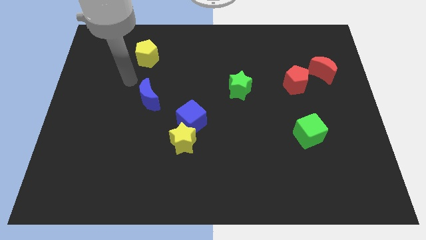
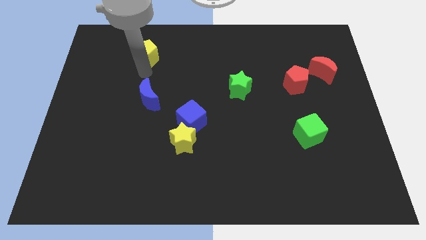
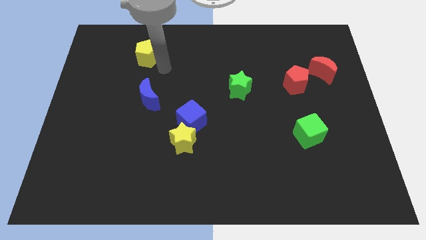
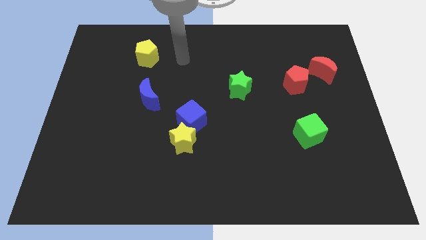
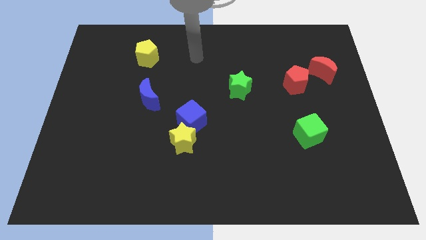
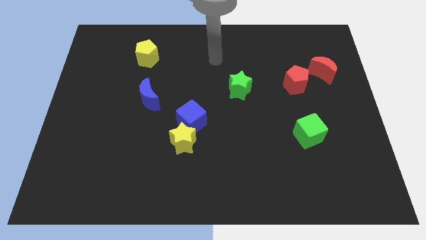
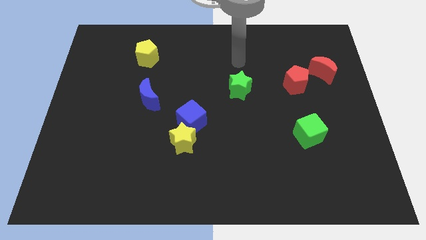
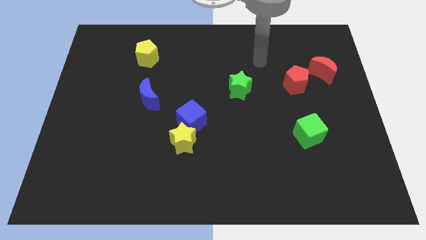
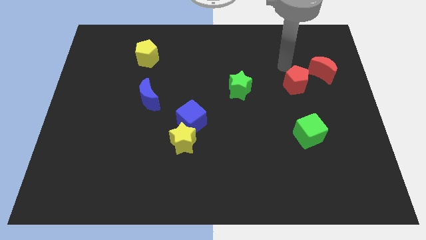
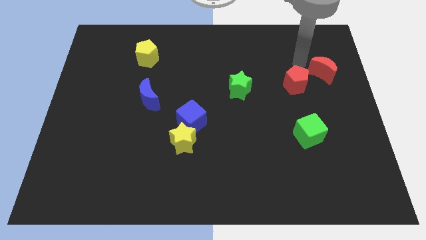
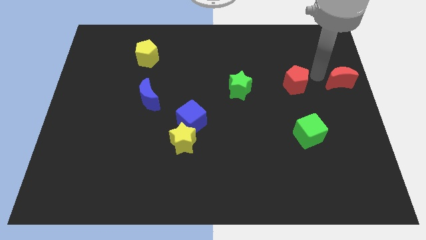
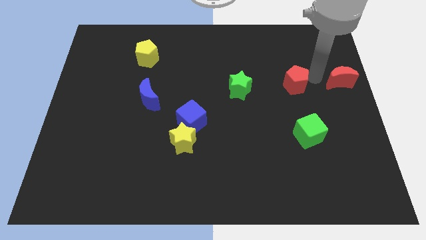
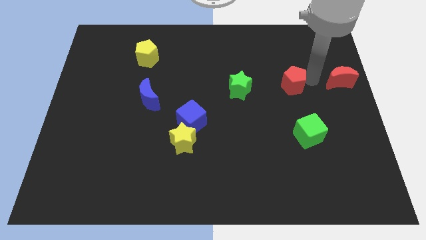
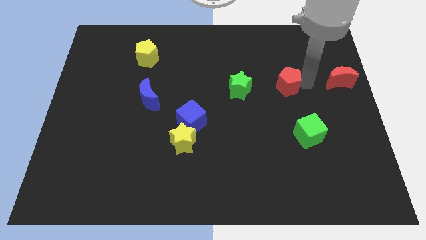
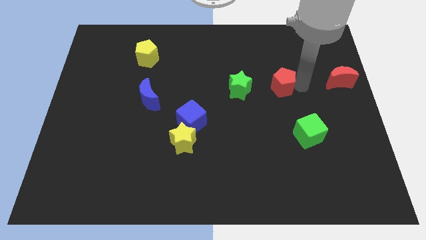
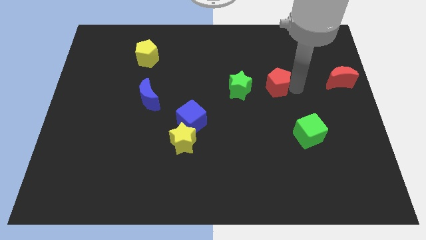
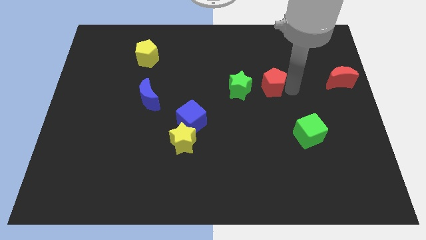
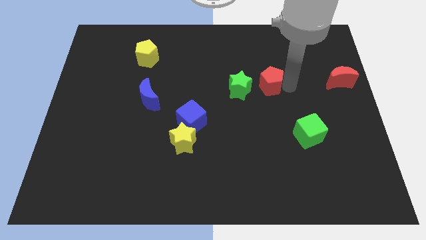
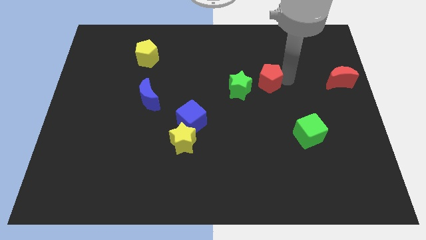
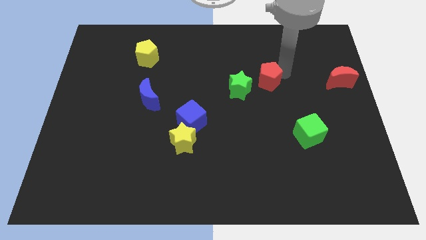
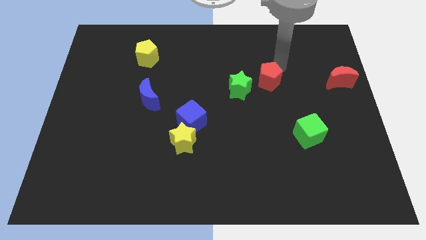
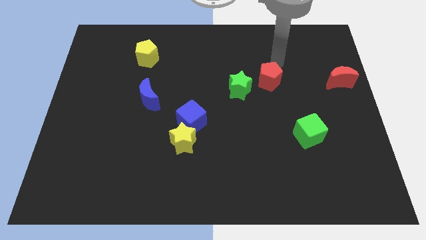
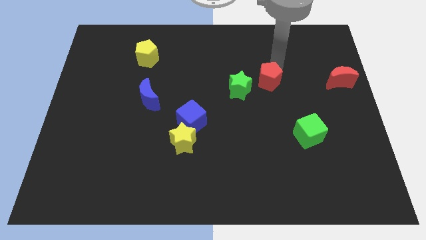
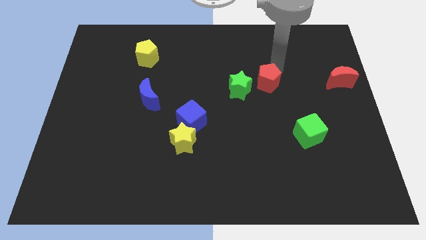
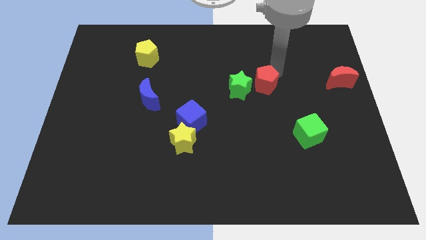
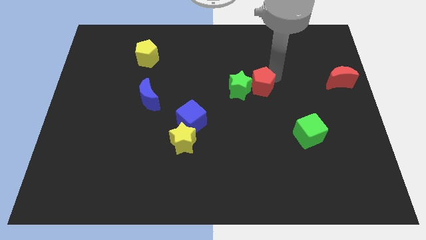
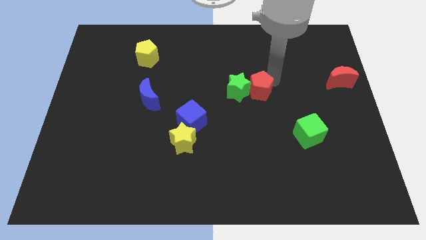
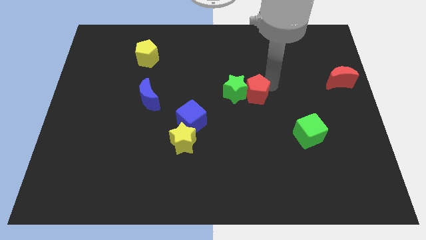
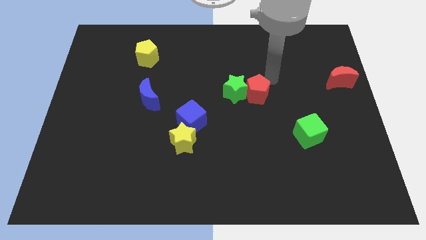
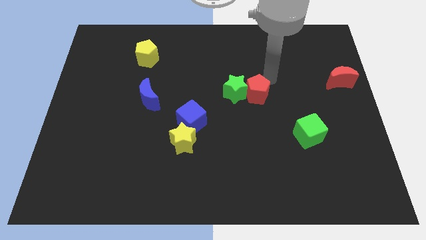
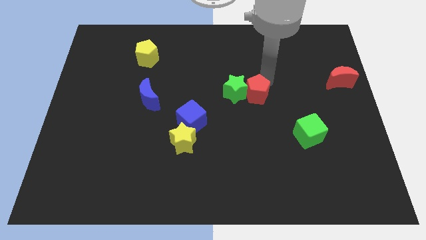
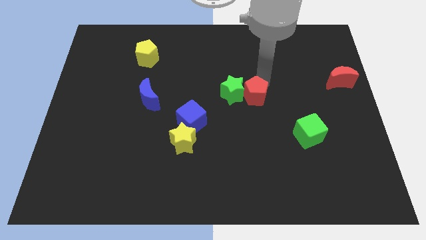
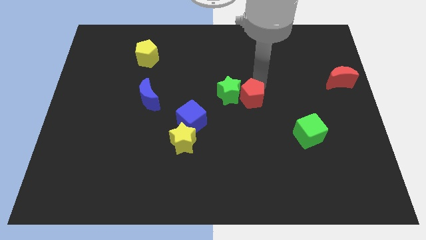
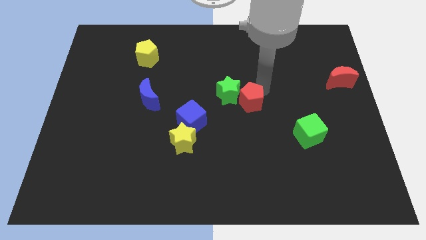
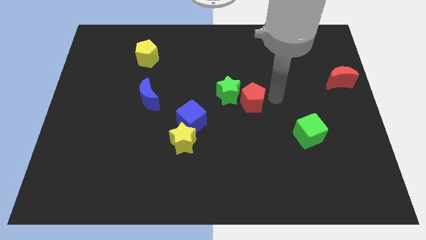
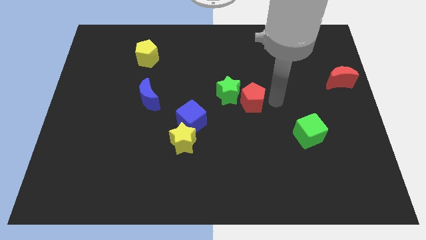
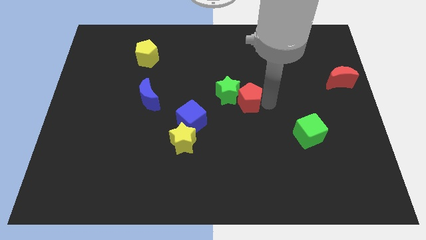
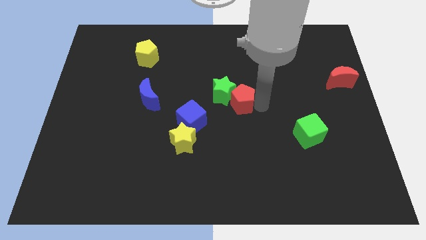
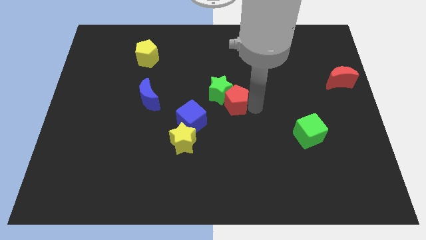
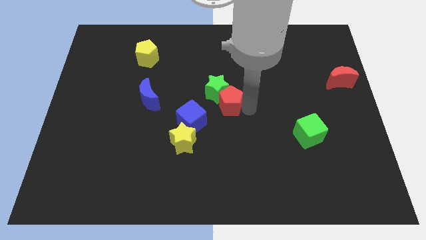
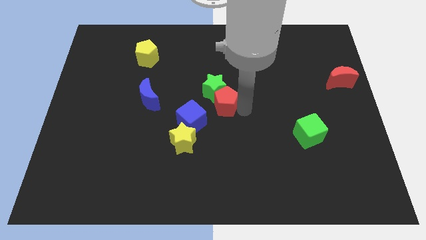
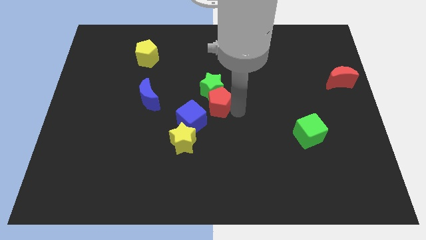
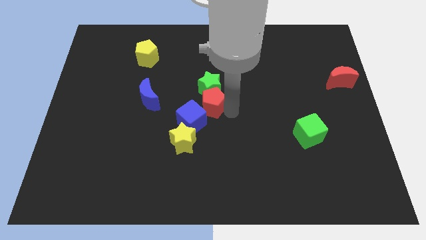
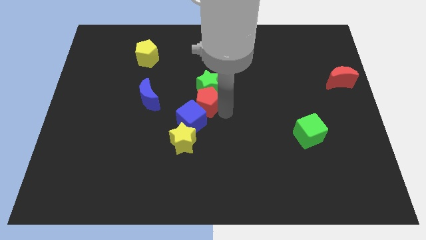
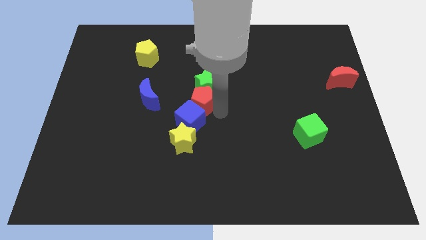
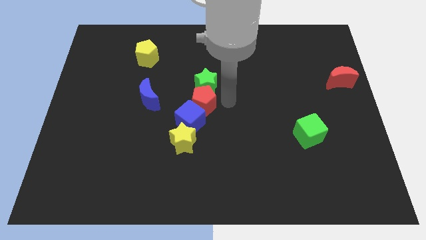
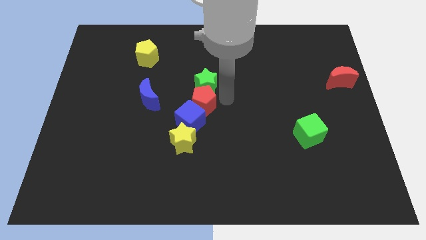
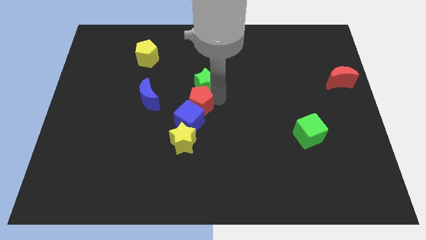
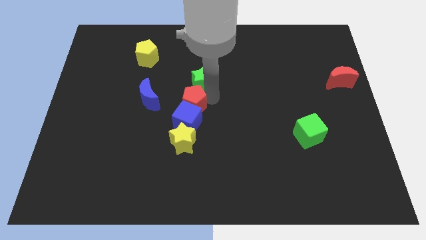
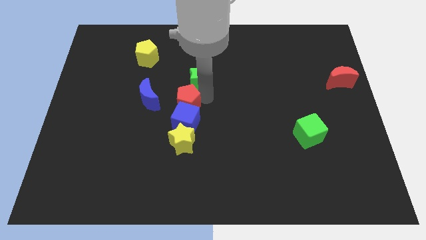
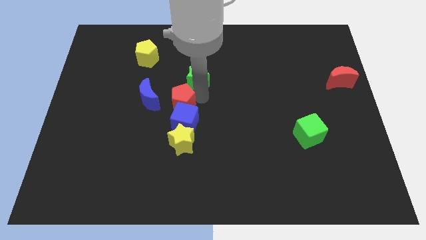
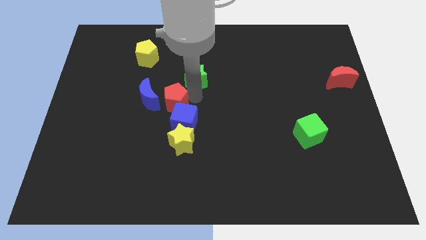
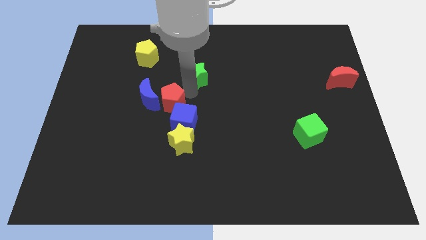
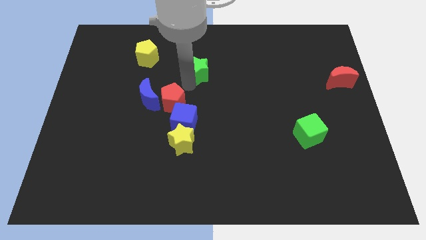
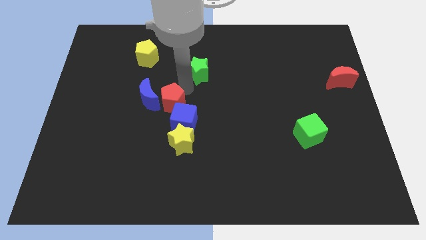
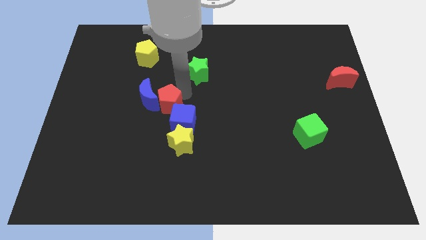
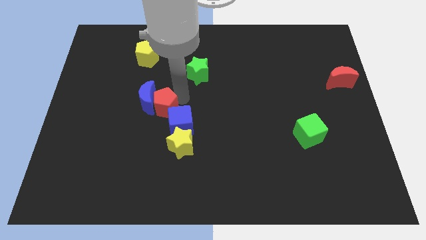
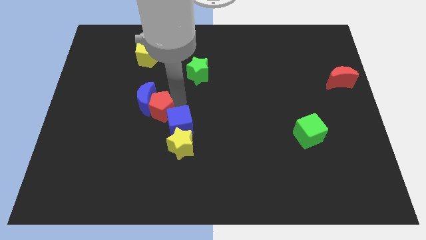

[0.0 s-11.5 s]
push the red pentagon to the bottom side of the blue moon

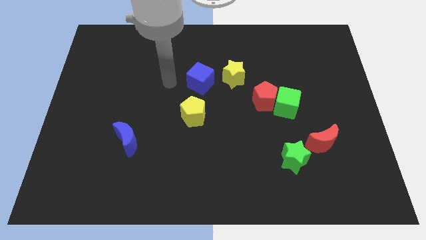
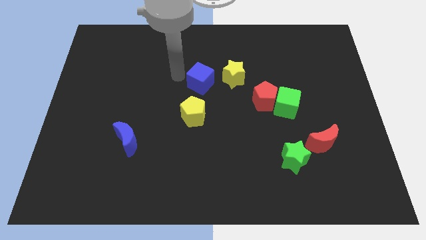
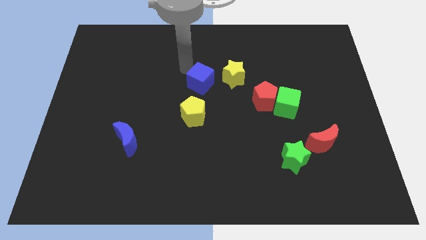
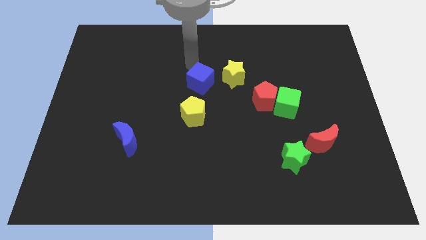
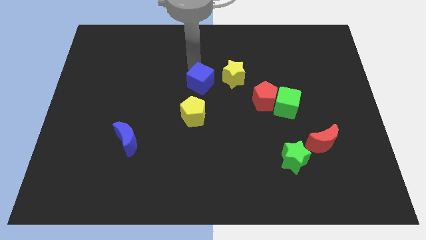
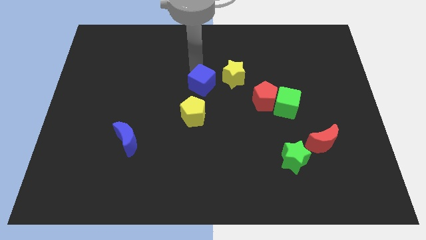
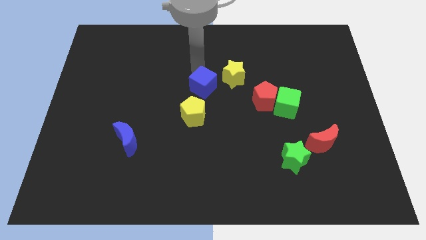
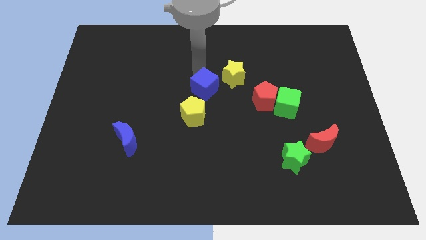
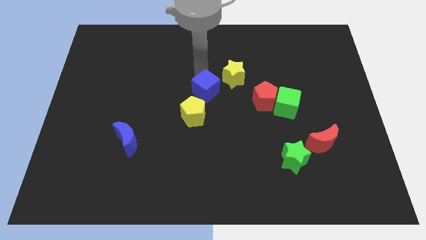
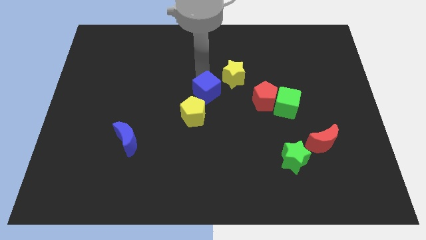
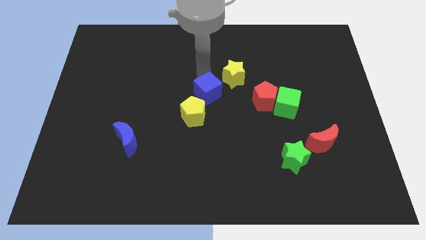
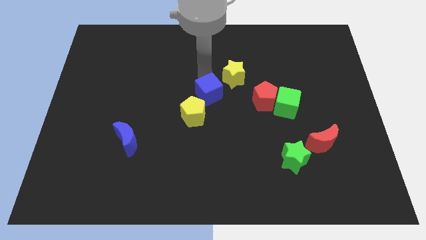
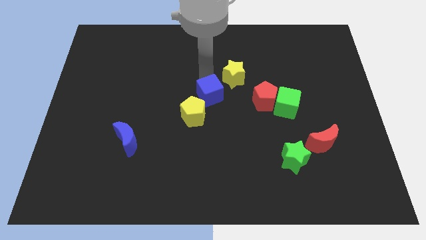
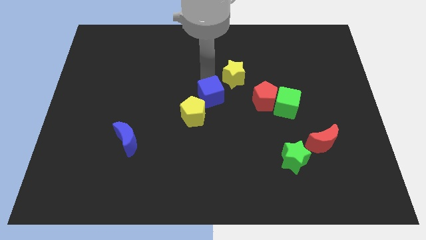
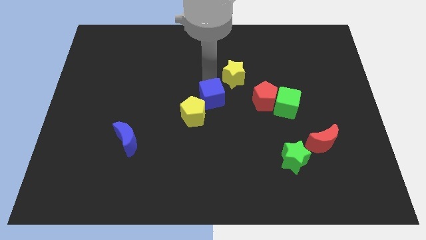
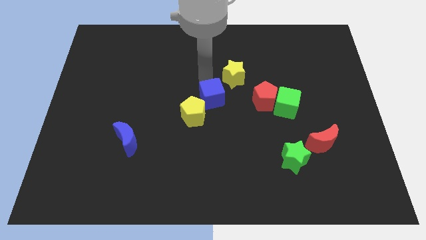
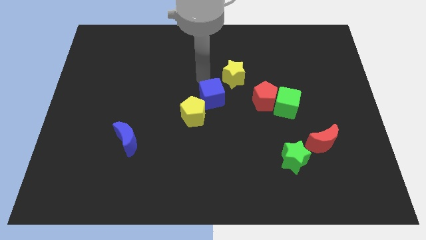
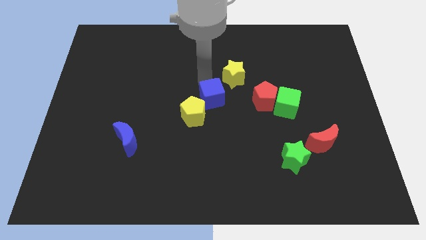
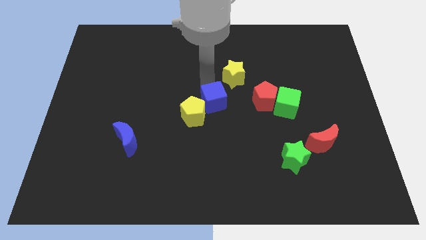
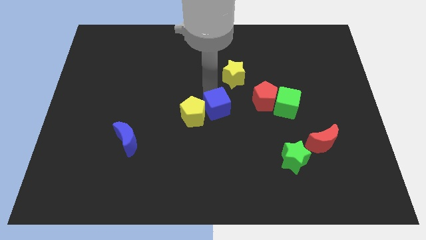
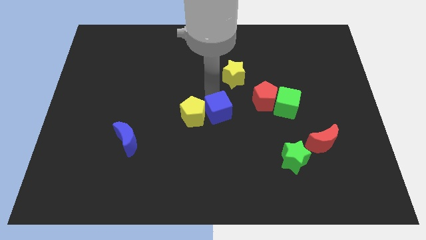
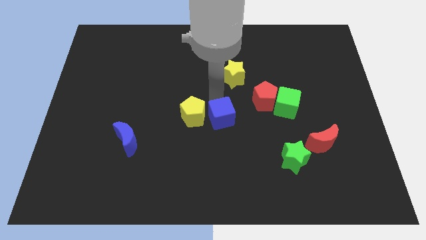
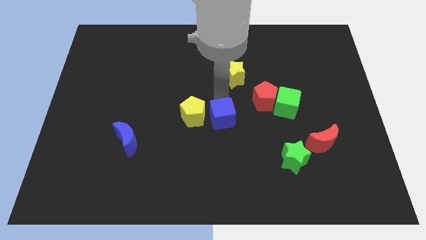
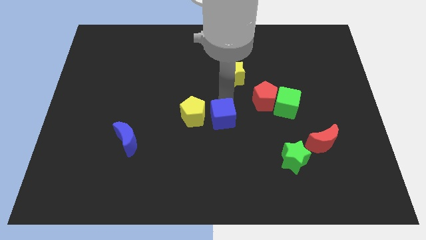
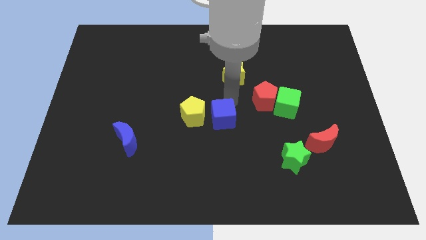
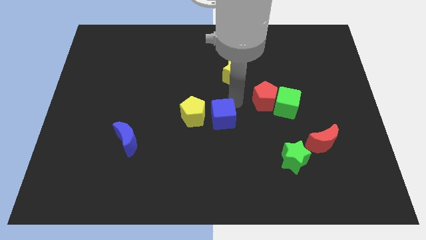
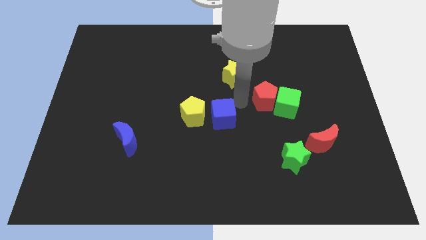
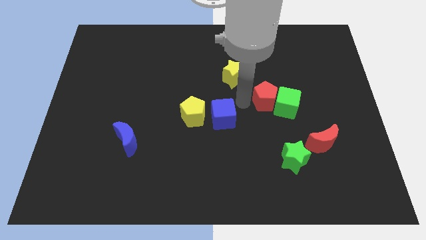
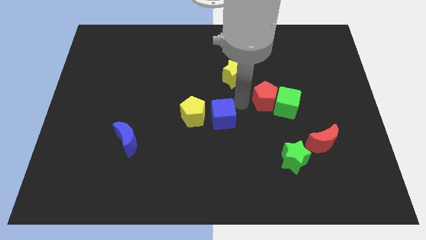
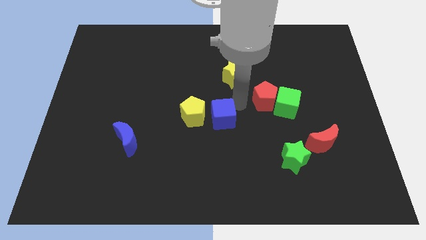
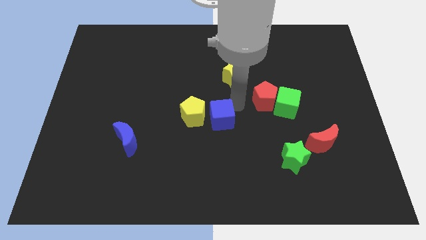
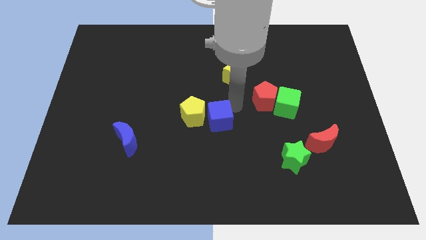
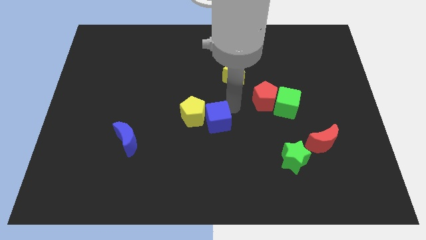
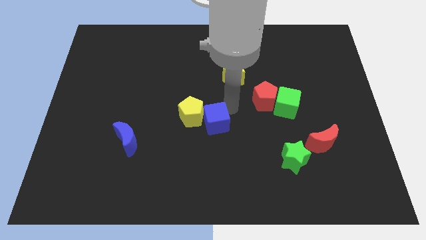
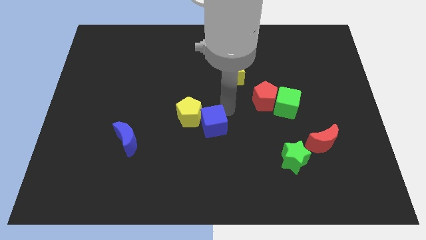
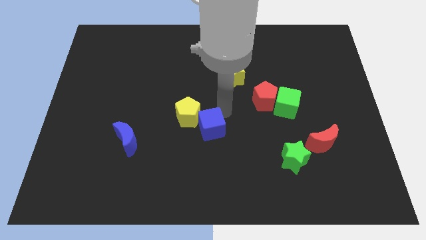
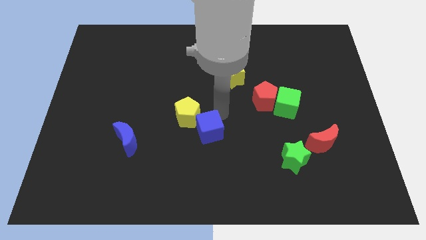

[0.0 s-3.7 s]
push the blue cube below the yellow pentagon
